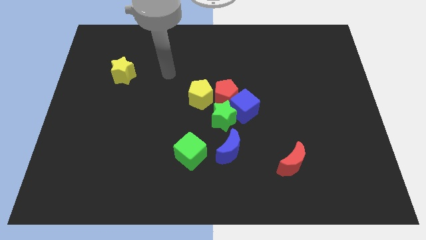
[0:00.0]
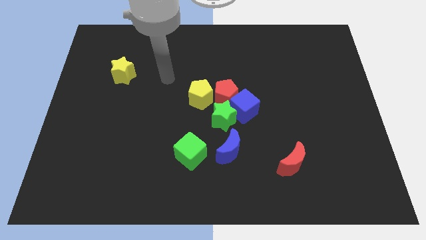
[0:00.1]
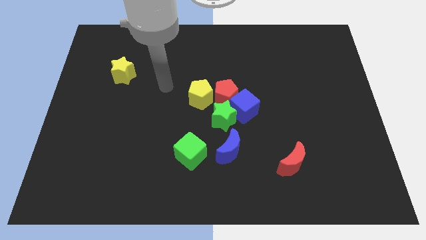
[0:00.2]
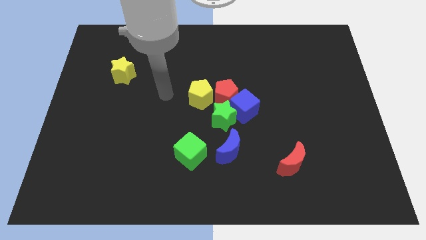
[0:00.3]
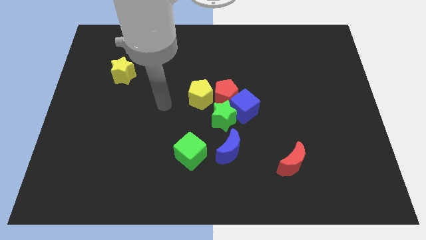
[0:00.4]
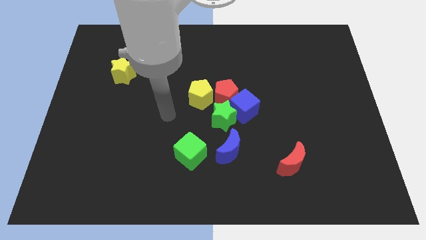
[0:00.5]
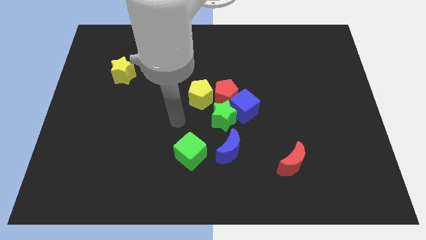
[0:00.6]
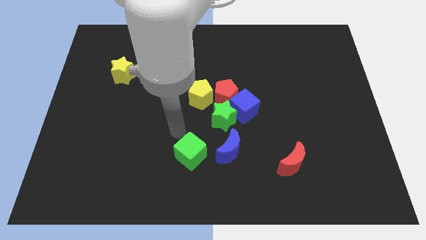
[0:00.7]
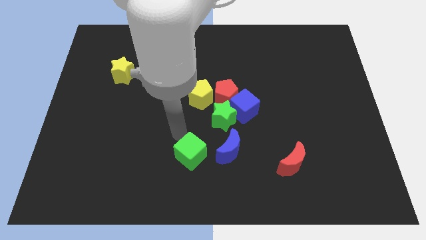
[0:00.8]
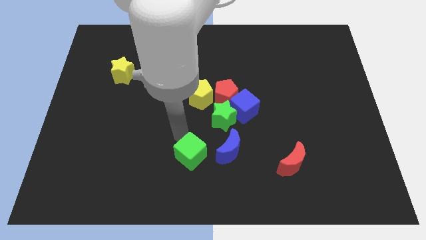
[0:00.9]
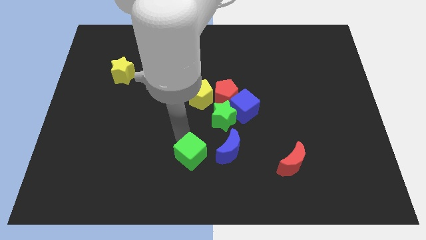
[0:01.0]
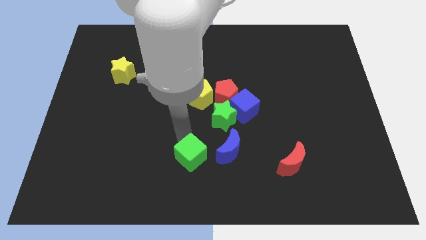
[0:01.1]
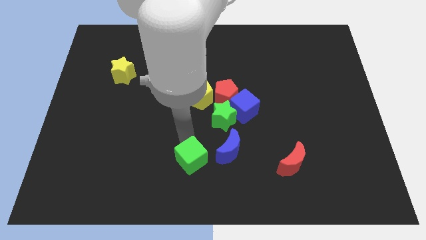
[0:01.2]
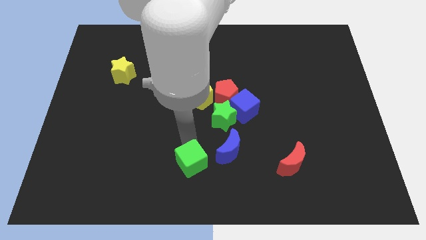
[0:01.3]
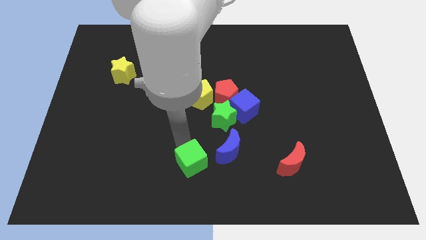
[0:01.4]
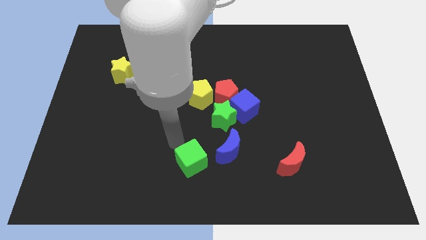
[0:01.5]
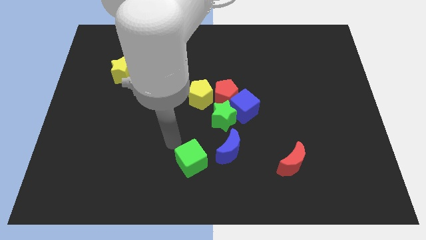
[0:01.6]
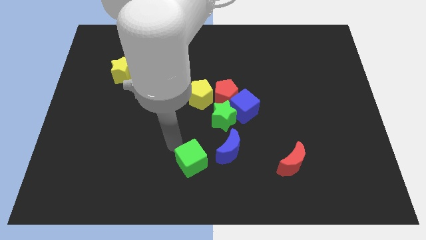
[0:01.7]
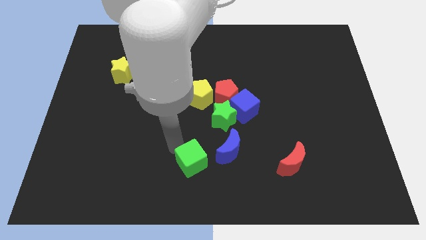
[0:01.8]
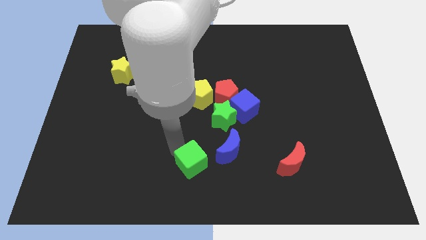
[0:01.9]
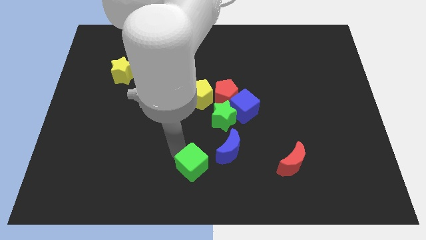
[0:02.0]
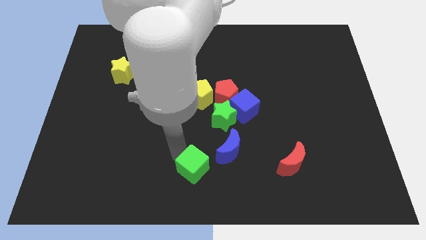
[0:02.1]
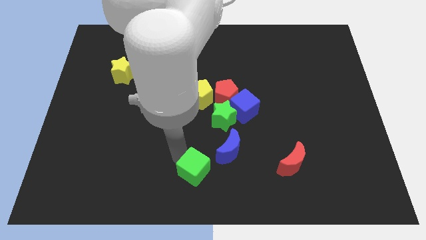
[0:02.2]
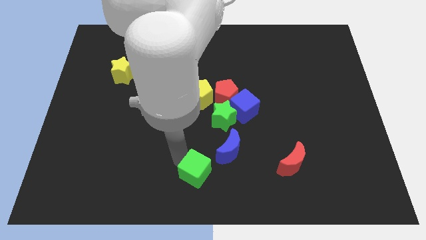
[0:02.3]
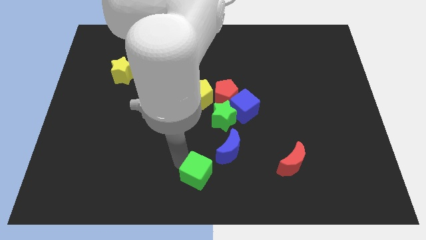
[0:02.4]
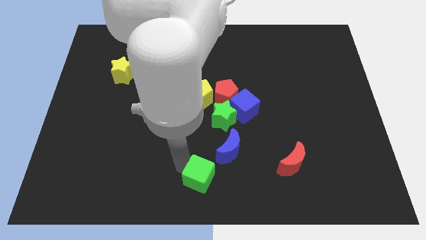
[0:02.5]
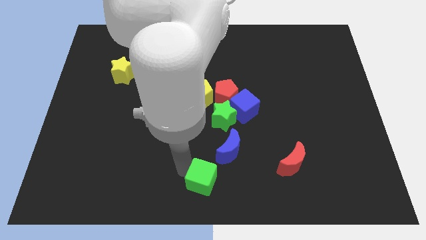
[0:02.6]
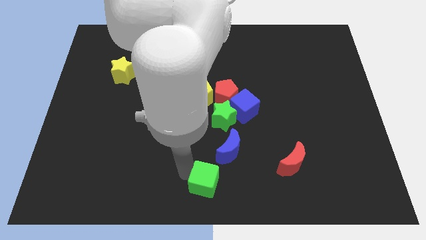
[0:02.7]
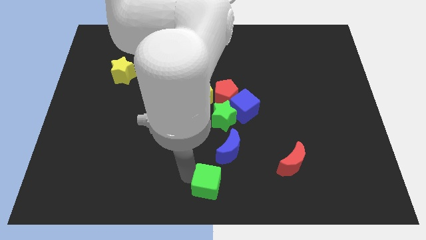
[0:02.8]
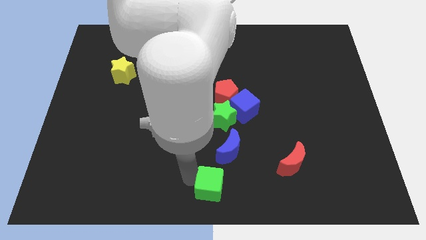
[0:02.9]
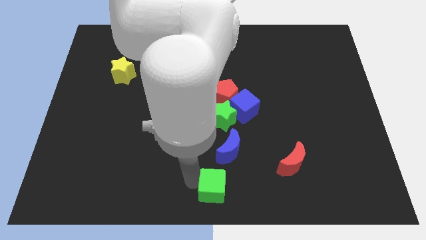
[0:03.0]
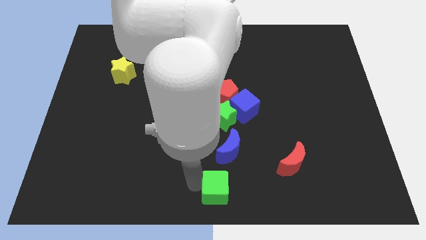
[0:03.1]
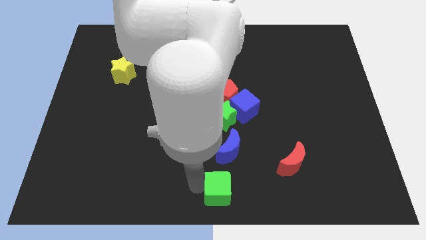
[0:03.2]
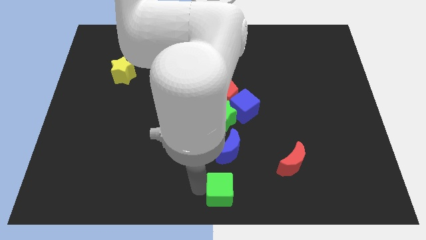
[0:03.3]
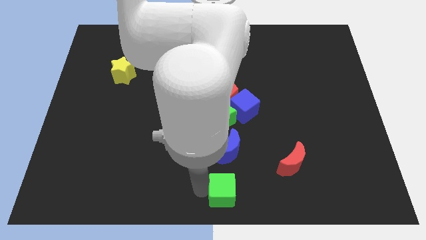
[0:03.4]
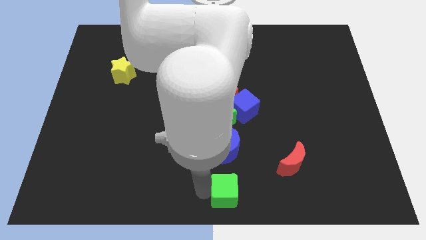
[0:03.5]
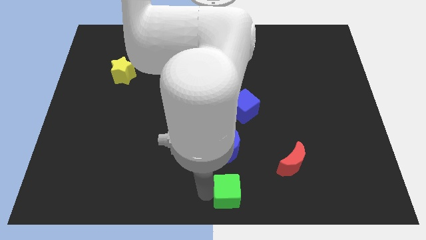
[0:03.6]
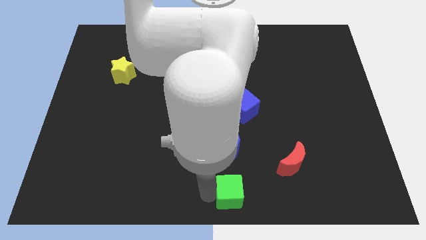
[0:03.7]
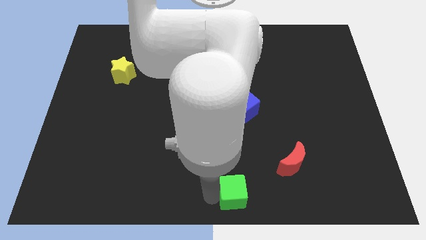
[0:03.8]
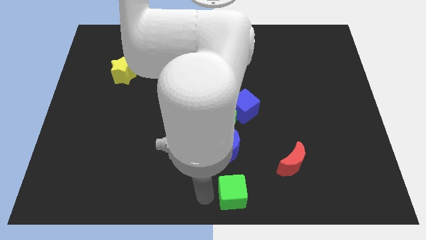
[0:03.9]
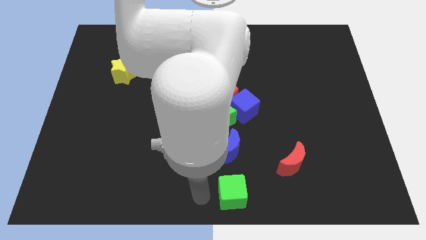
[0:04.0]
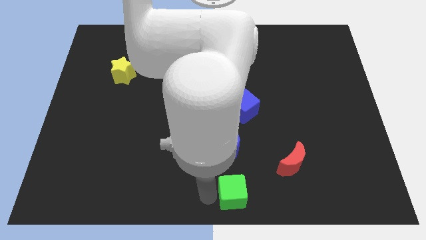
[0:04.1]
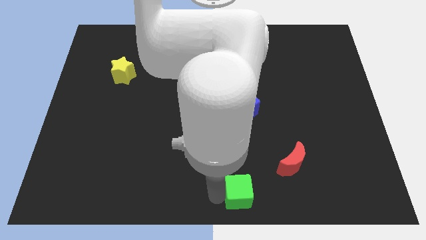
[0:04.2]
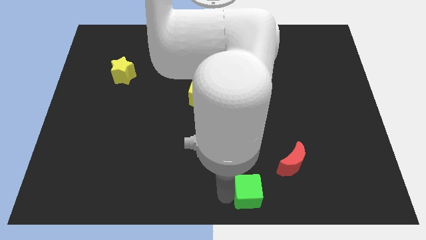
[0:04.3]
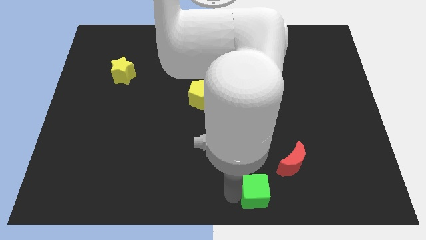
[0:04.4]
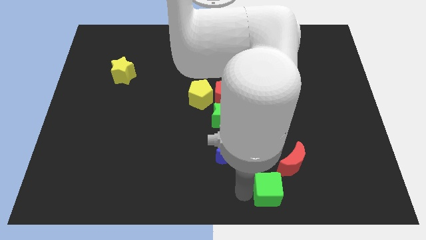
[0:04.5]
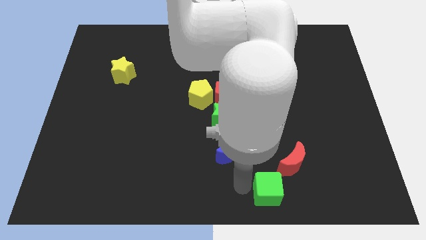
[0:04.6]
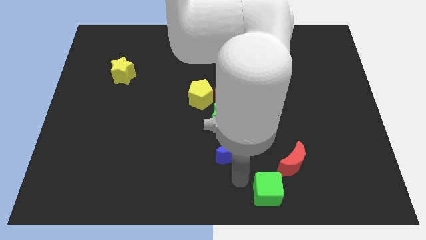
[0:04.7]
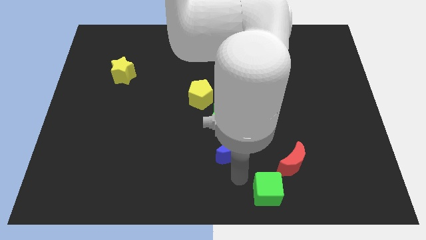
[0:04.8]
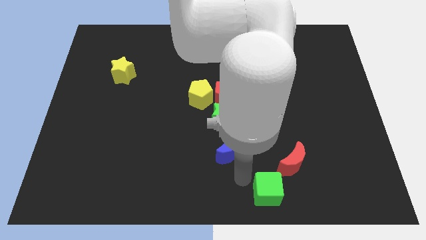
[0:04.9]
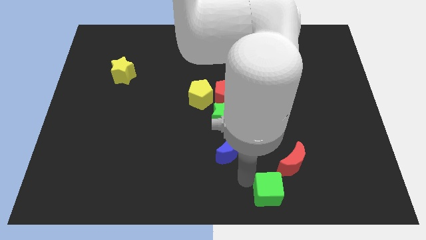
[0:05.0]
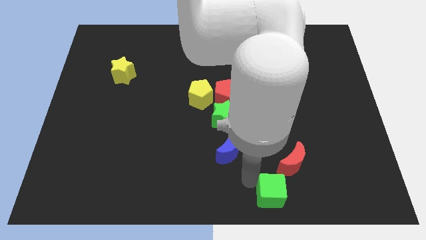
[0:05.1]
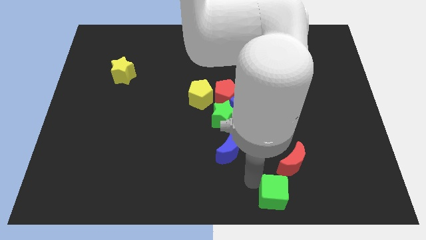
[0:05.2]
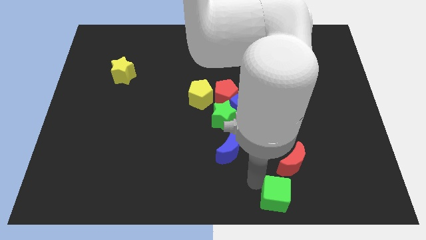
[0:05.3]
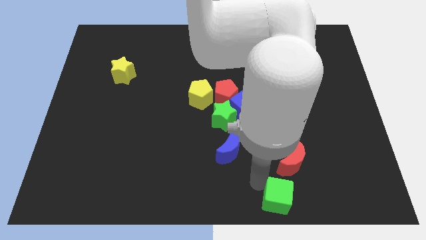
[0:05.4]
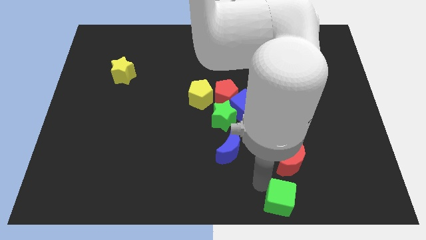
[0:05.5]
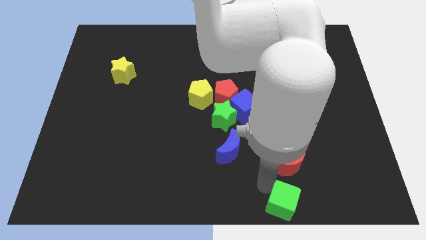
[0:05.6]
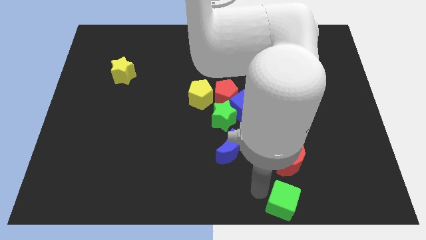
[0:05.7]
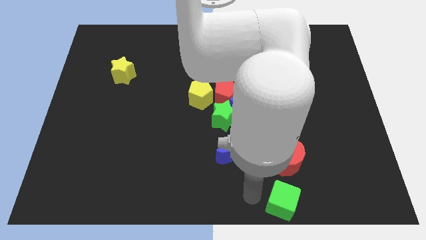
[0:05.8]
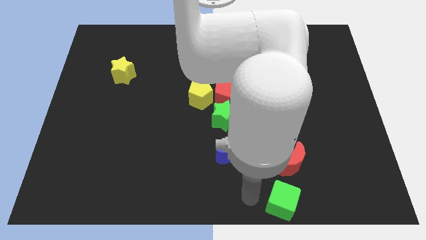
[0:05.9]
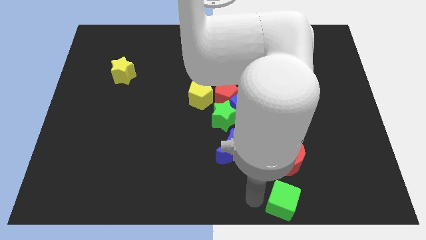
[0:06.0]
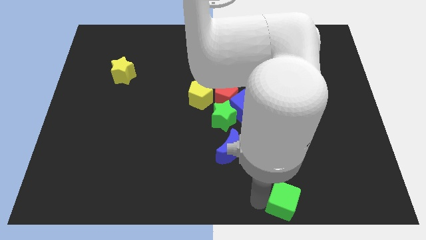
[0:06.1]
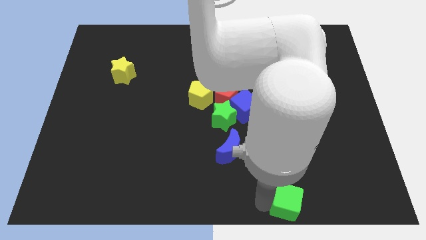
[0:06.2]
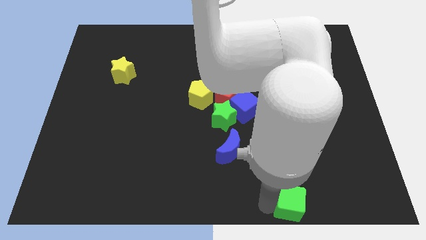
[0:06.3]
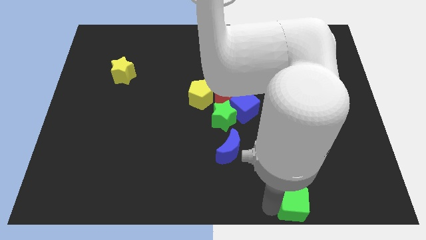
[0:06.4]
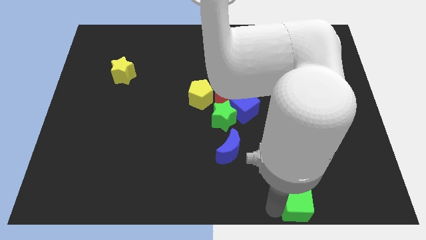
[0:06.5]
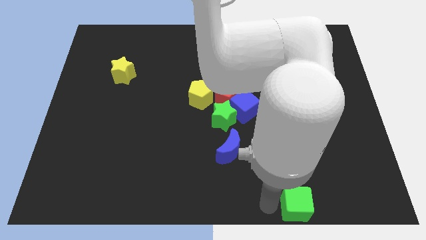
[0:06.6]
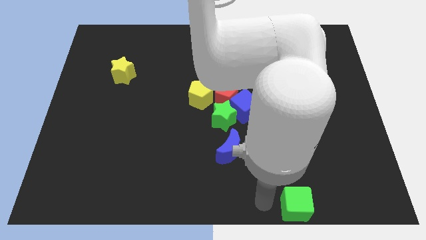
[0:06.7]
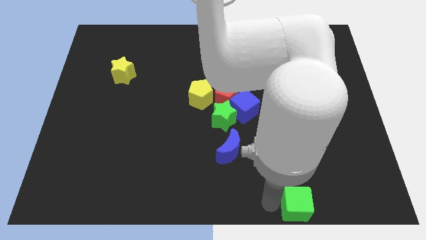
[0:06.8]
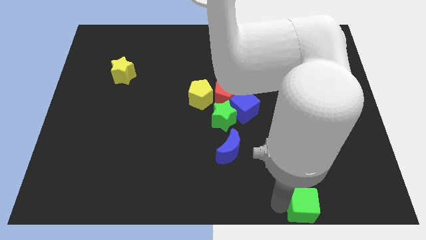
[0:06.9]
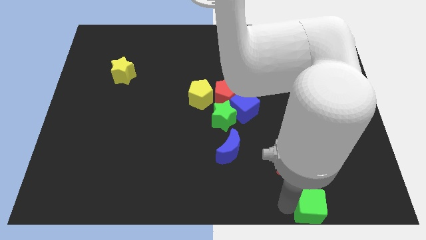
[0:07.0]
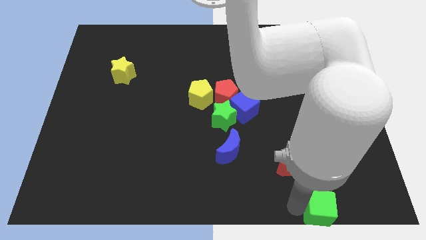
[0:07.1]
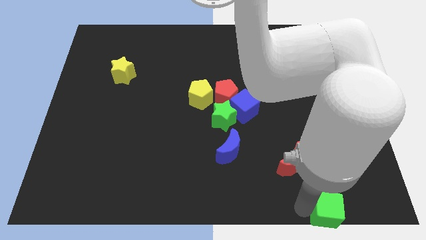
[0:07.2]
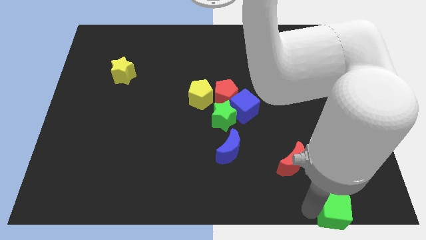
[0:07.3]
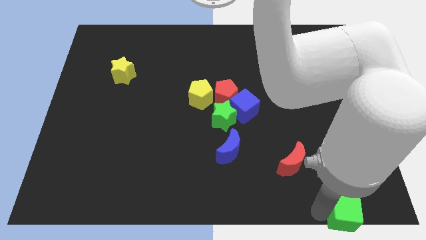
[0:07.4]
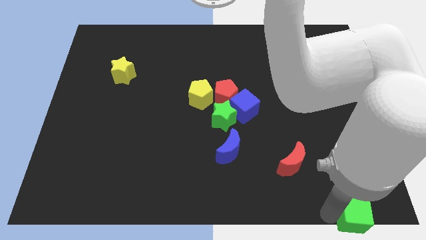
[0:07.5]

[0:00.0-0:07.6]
slide the green cube to the bottom right of the board
